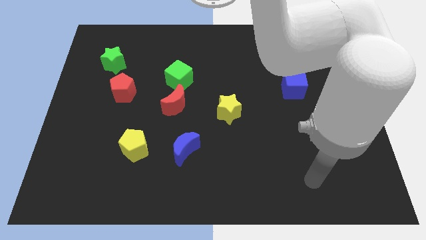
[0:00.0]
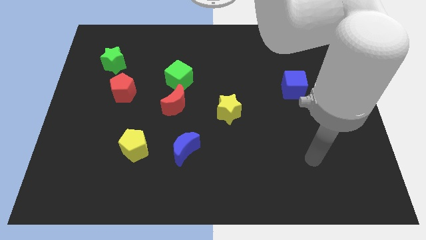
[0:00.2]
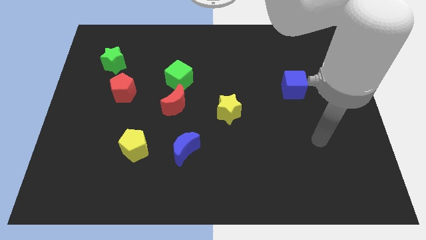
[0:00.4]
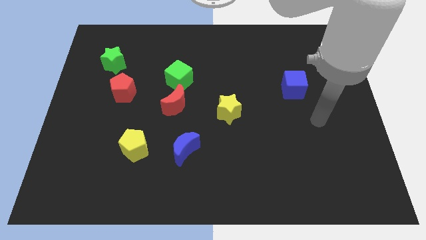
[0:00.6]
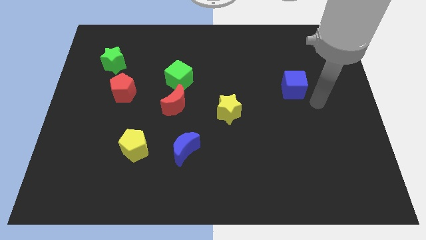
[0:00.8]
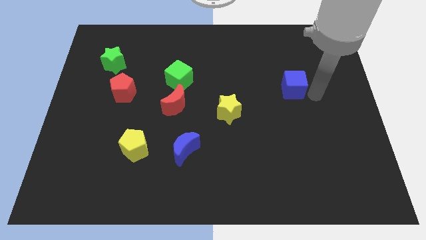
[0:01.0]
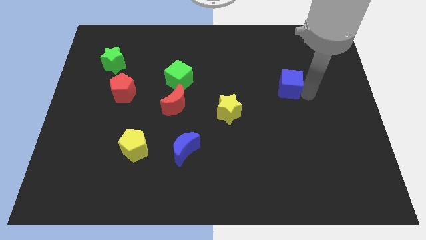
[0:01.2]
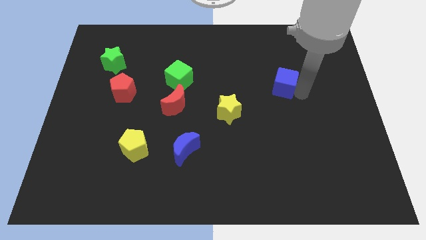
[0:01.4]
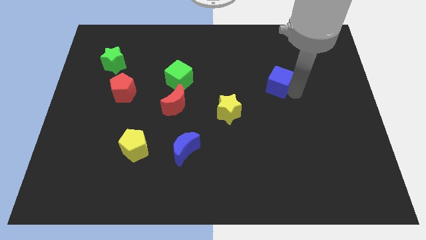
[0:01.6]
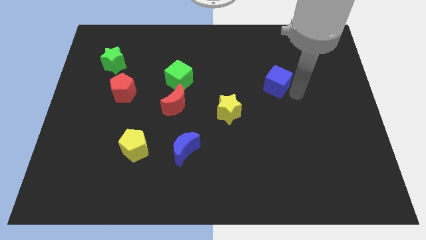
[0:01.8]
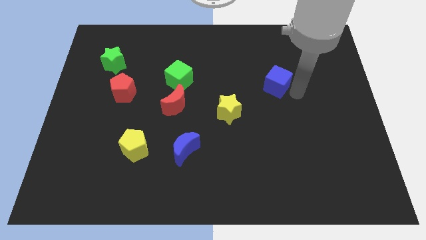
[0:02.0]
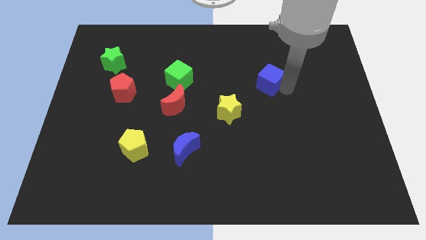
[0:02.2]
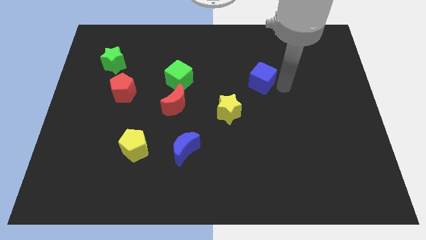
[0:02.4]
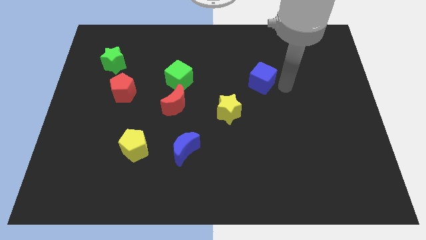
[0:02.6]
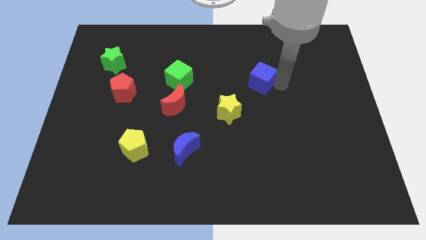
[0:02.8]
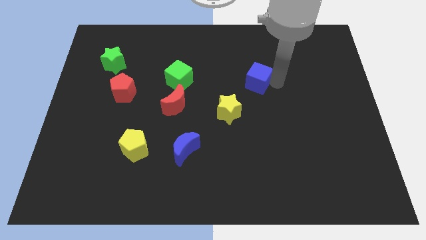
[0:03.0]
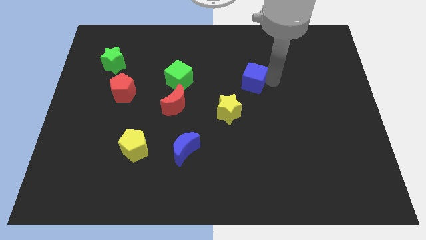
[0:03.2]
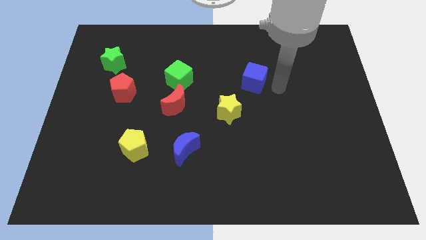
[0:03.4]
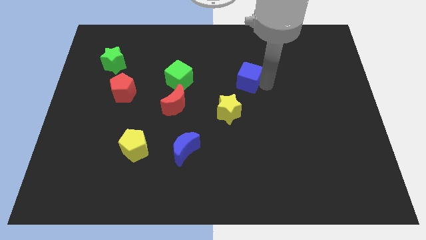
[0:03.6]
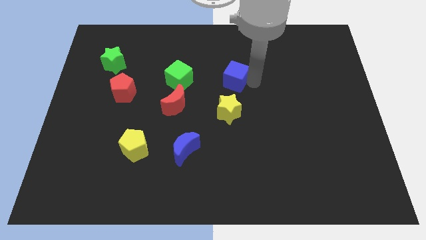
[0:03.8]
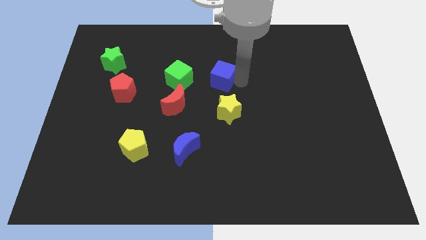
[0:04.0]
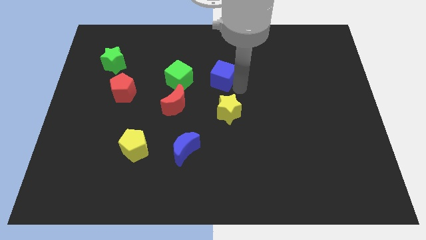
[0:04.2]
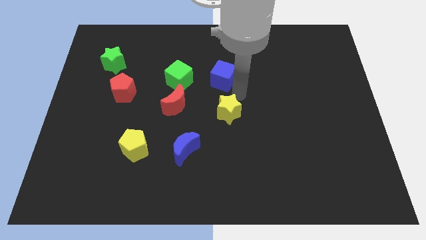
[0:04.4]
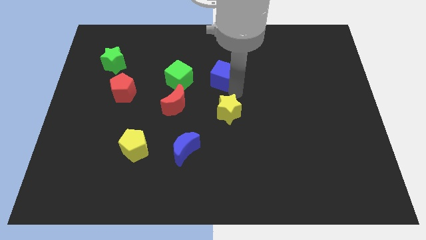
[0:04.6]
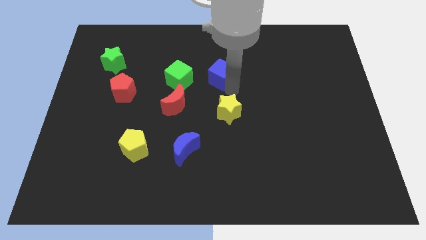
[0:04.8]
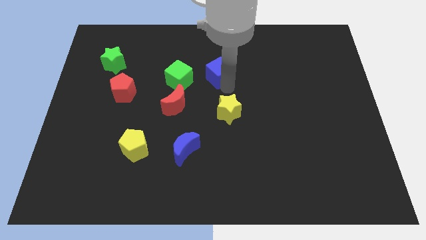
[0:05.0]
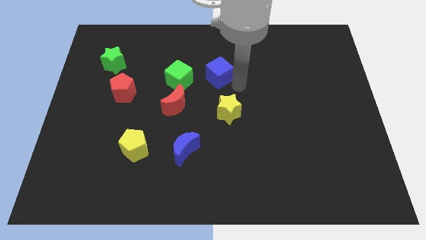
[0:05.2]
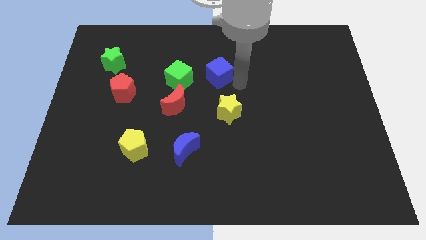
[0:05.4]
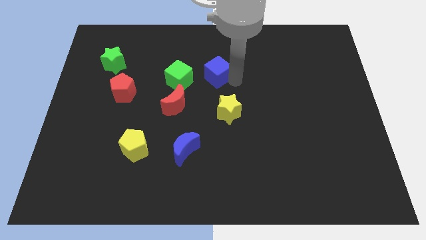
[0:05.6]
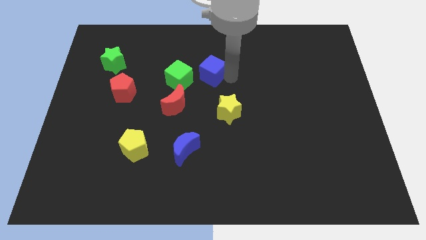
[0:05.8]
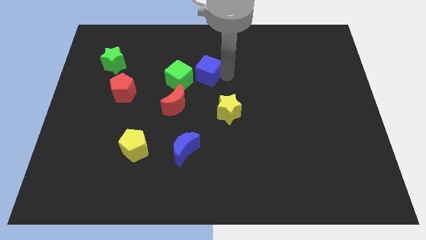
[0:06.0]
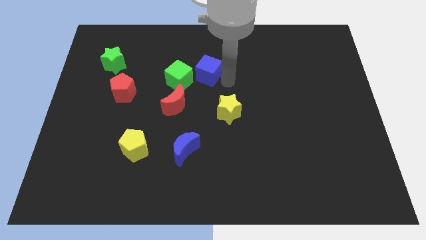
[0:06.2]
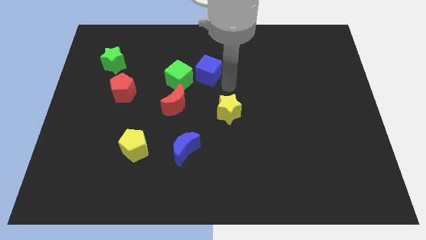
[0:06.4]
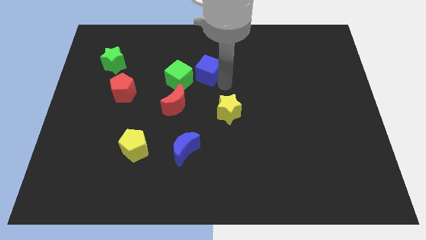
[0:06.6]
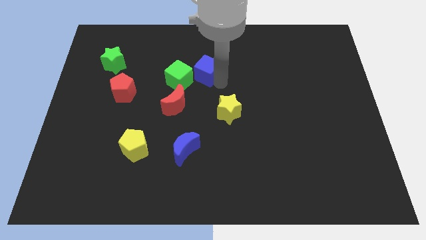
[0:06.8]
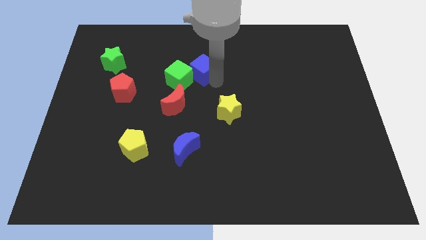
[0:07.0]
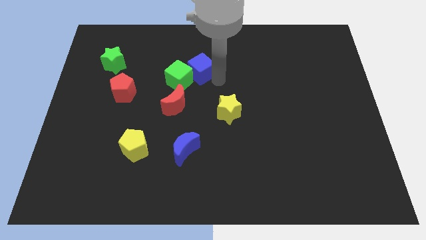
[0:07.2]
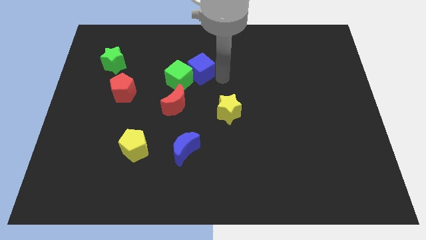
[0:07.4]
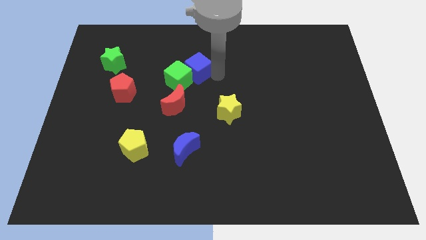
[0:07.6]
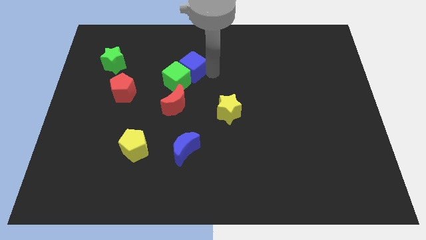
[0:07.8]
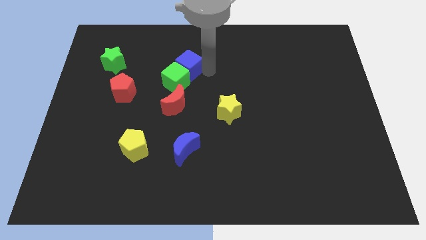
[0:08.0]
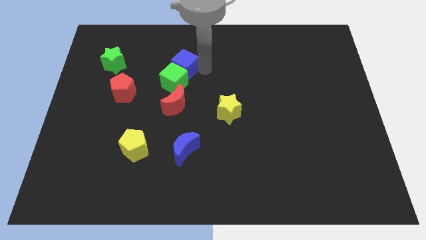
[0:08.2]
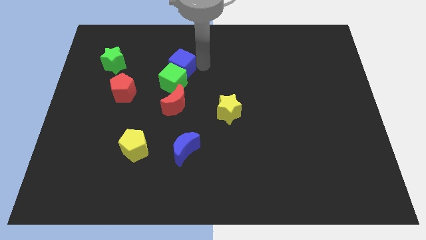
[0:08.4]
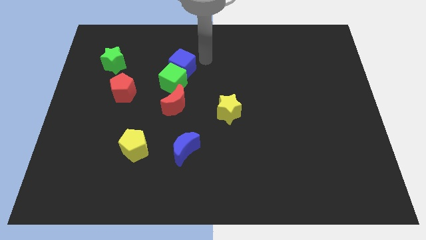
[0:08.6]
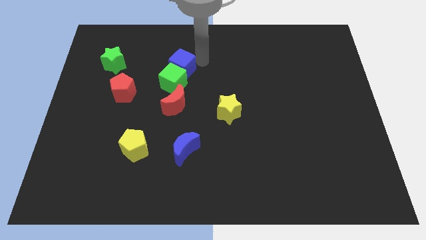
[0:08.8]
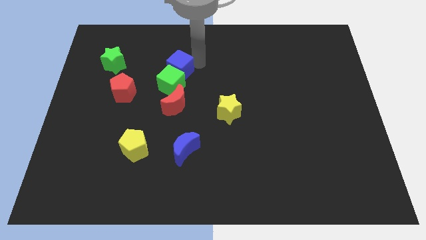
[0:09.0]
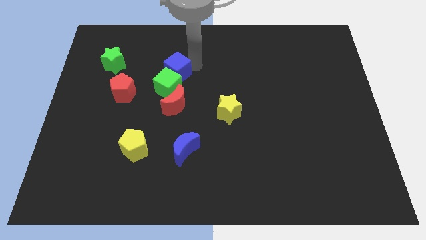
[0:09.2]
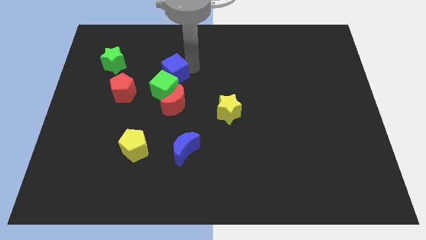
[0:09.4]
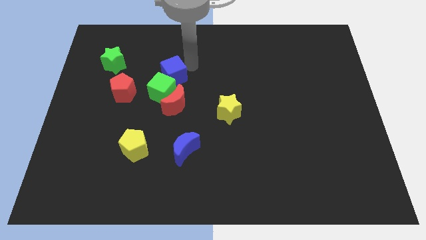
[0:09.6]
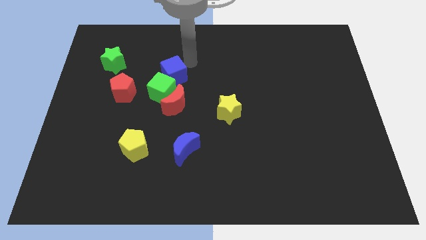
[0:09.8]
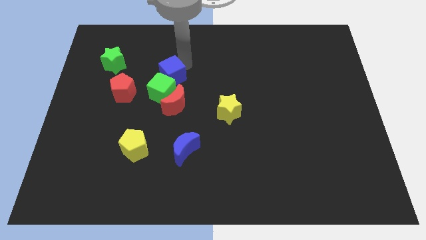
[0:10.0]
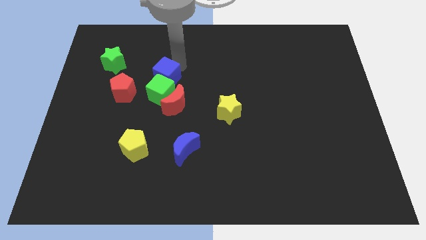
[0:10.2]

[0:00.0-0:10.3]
put the blue cube to the top left of the red moon

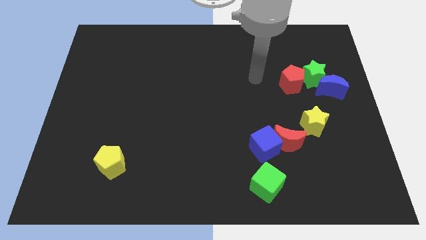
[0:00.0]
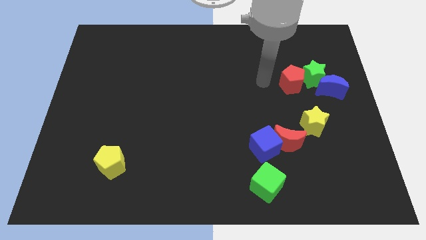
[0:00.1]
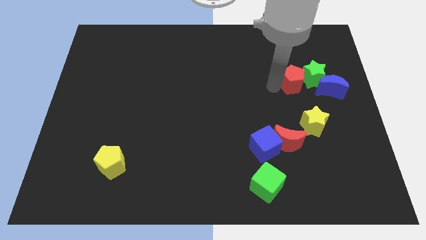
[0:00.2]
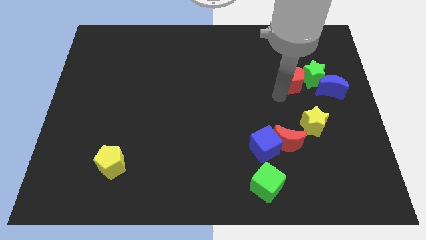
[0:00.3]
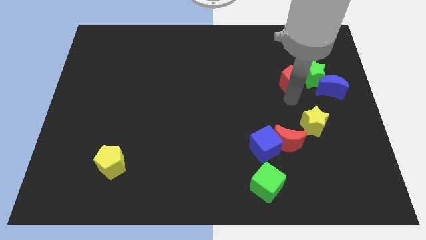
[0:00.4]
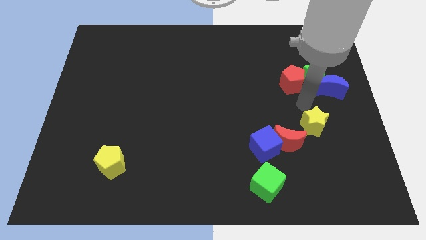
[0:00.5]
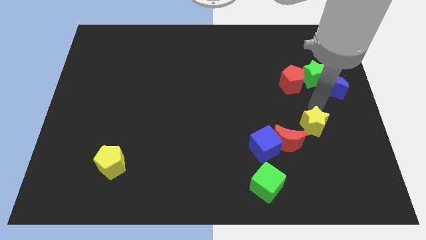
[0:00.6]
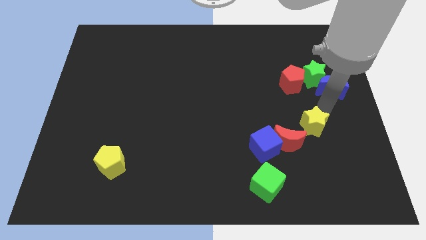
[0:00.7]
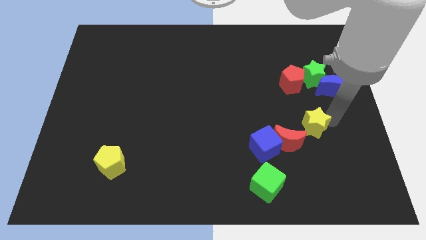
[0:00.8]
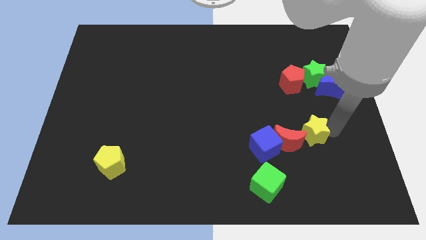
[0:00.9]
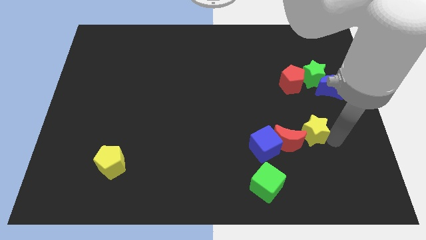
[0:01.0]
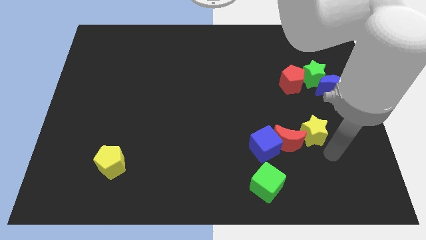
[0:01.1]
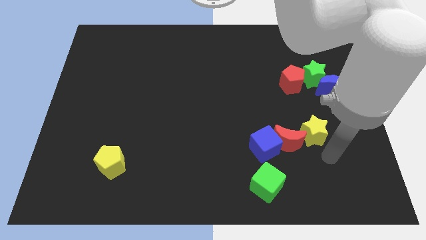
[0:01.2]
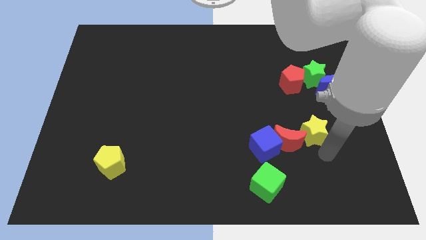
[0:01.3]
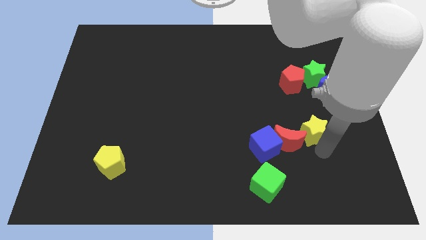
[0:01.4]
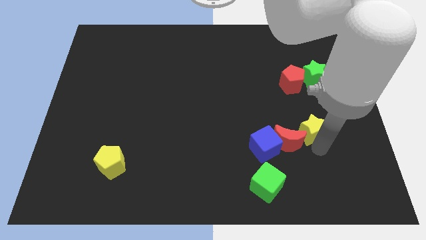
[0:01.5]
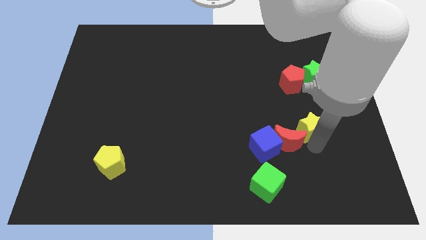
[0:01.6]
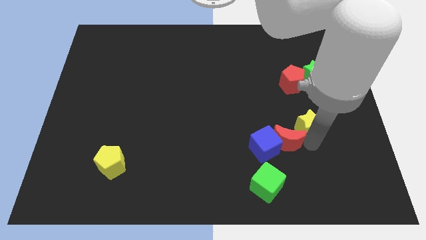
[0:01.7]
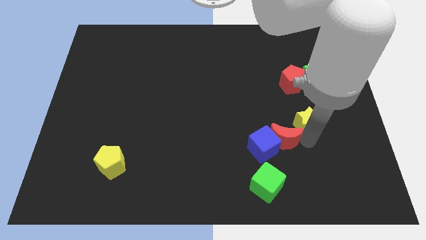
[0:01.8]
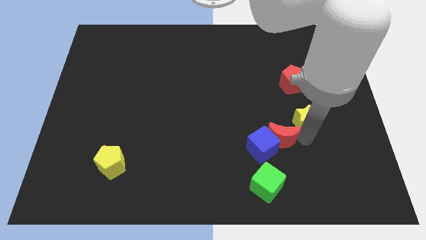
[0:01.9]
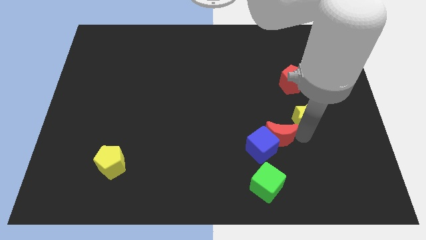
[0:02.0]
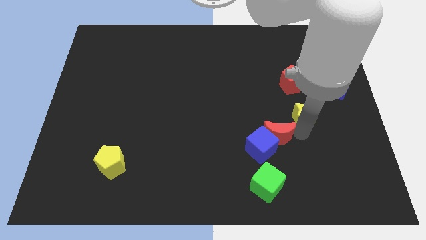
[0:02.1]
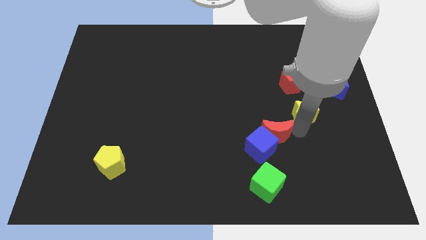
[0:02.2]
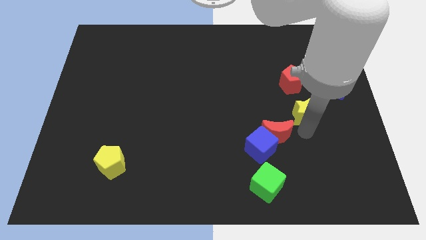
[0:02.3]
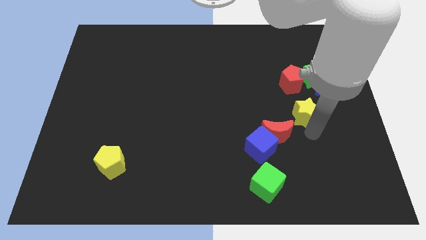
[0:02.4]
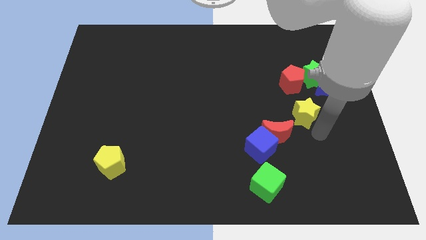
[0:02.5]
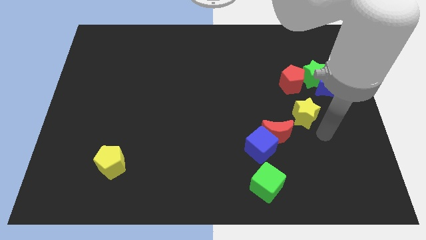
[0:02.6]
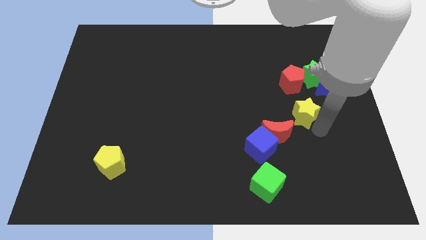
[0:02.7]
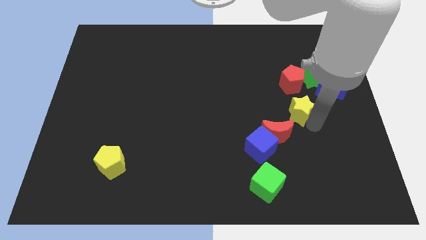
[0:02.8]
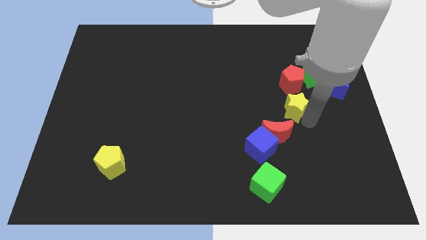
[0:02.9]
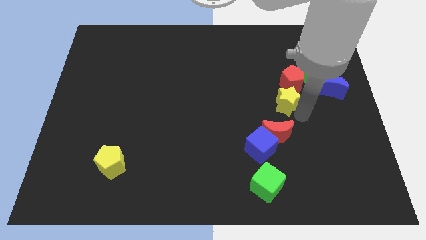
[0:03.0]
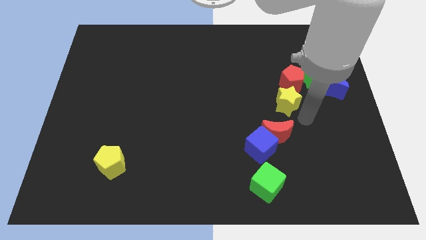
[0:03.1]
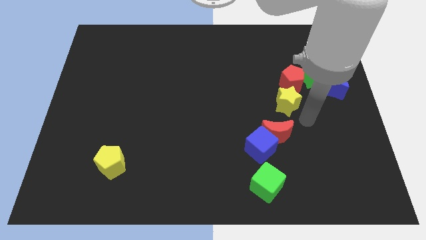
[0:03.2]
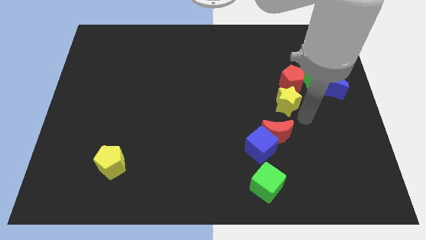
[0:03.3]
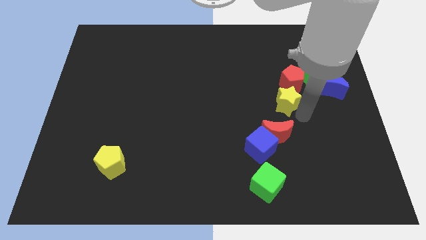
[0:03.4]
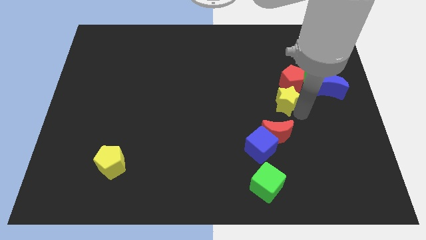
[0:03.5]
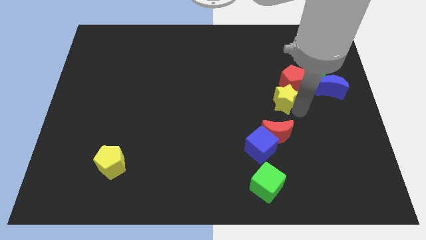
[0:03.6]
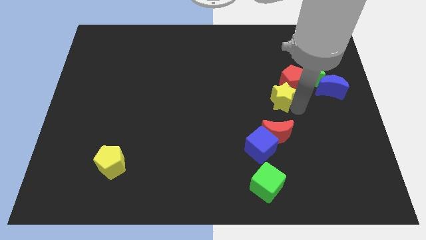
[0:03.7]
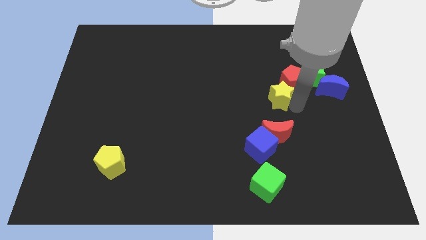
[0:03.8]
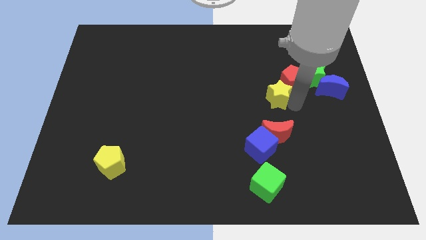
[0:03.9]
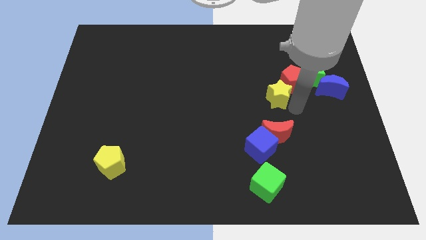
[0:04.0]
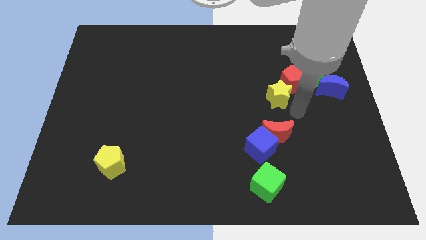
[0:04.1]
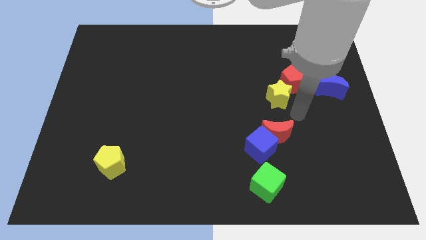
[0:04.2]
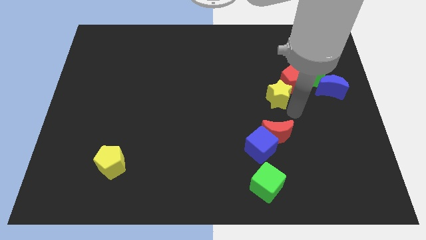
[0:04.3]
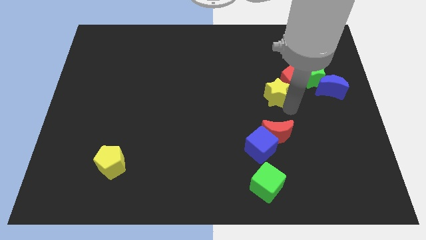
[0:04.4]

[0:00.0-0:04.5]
push the yellow star to the left side of the red pentagon
